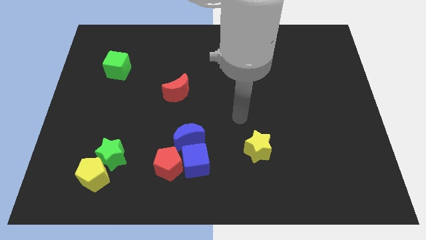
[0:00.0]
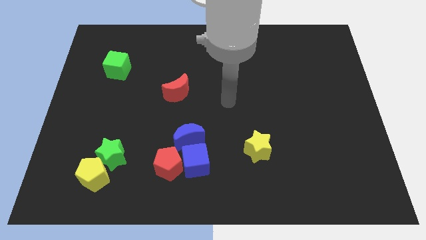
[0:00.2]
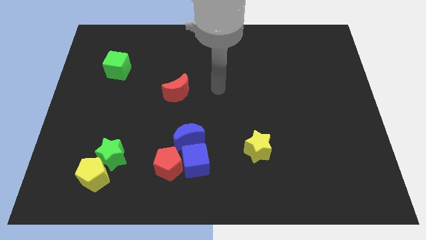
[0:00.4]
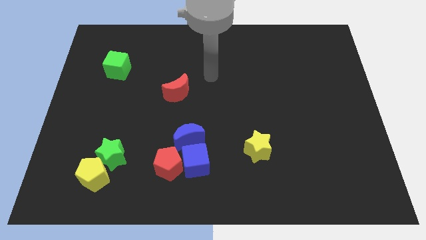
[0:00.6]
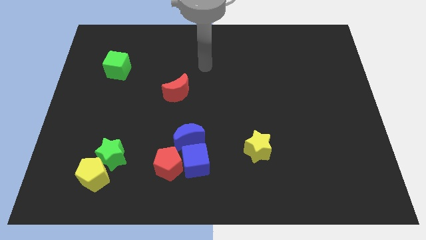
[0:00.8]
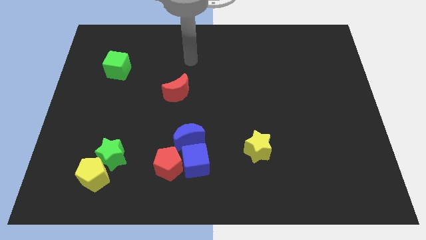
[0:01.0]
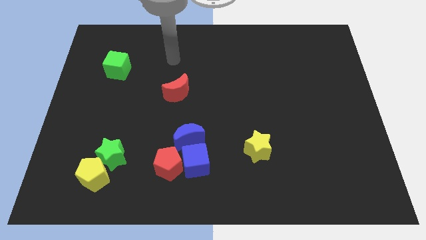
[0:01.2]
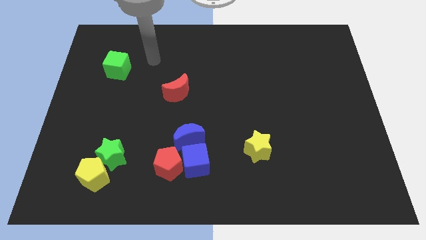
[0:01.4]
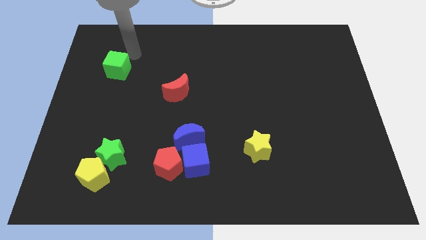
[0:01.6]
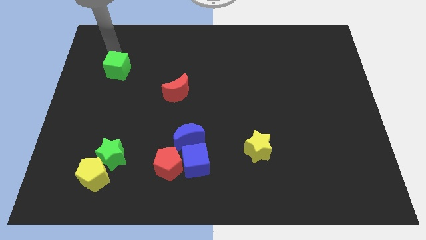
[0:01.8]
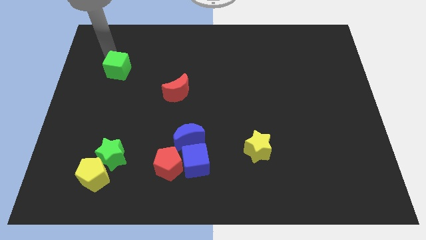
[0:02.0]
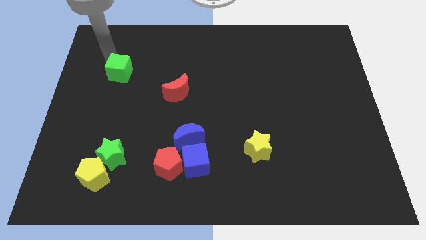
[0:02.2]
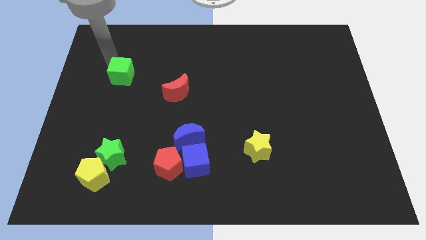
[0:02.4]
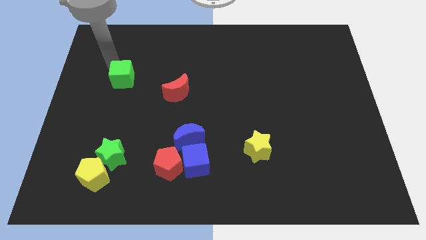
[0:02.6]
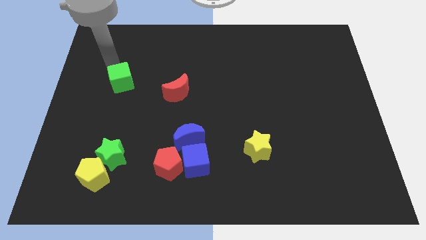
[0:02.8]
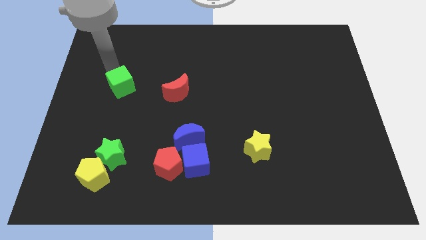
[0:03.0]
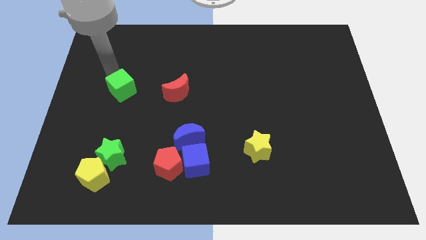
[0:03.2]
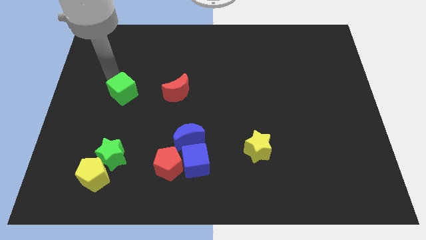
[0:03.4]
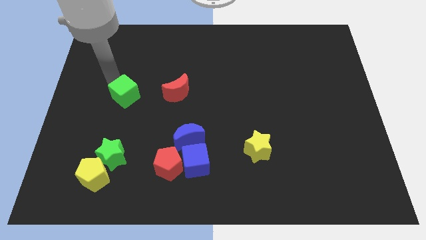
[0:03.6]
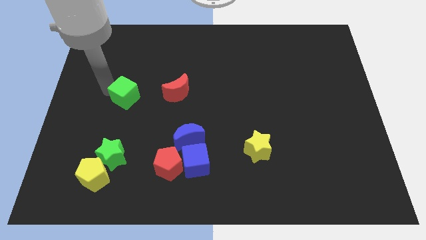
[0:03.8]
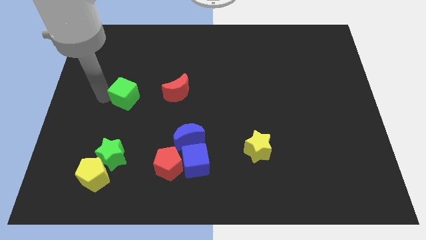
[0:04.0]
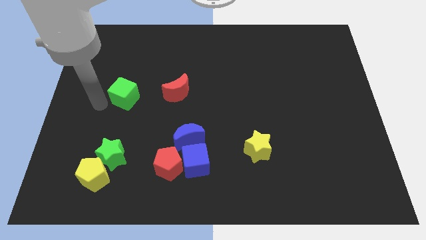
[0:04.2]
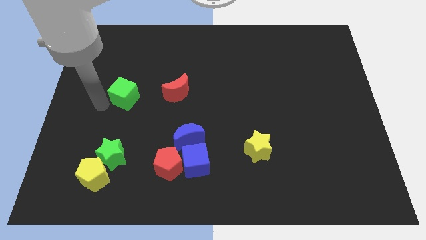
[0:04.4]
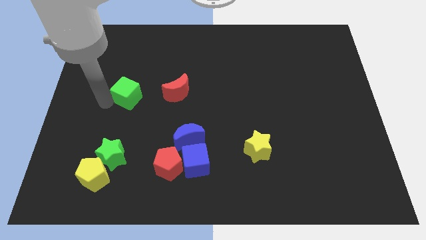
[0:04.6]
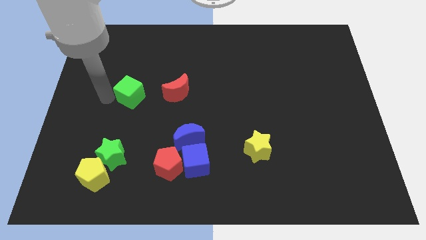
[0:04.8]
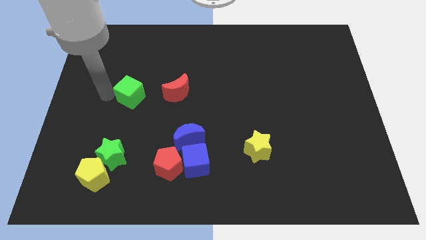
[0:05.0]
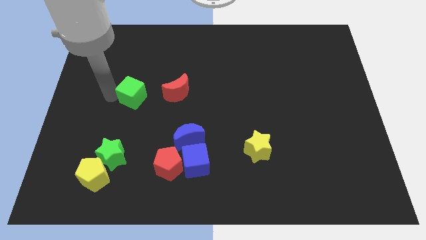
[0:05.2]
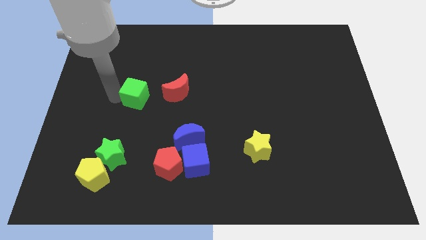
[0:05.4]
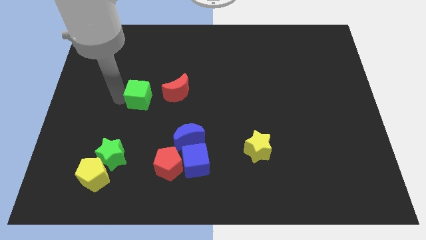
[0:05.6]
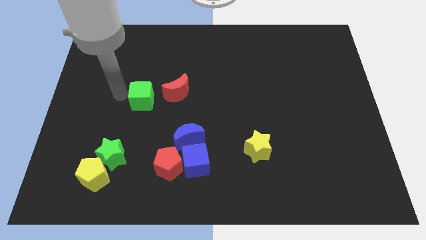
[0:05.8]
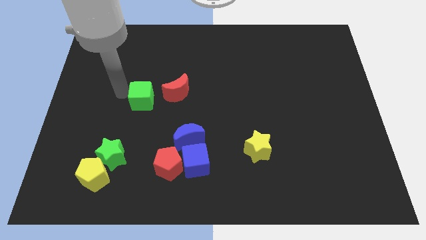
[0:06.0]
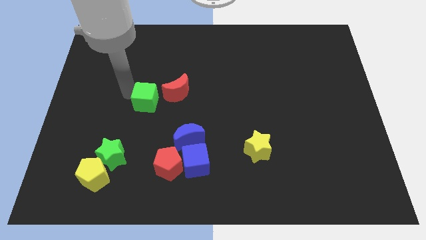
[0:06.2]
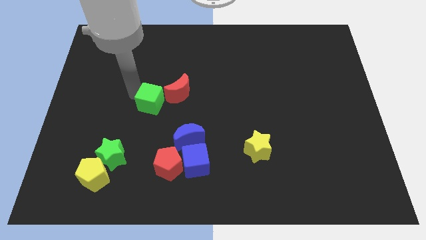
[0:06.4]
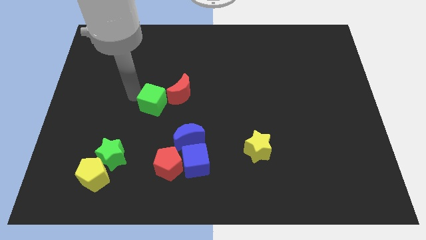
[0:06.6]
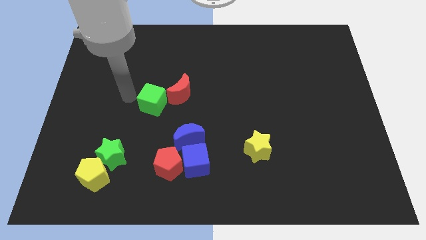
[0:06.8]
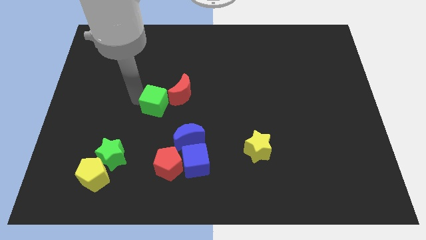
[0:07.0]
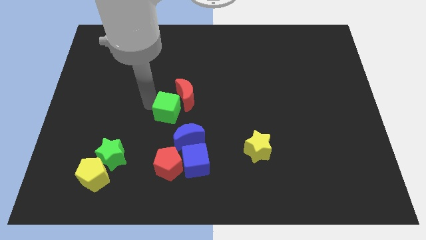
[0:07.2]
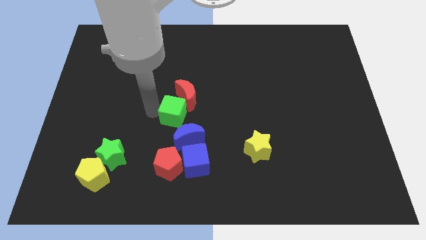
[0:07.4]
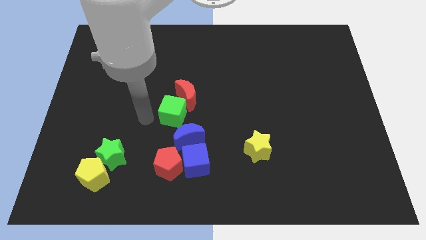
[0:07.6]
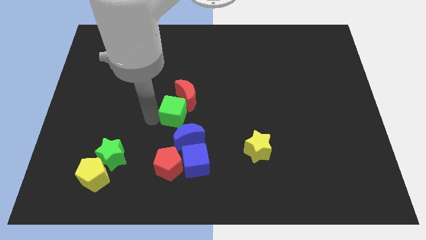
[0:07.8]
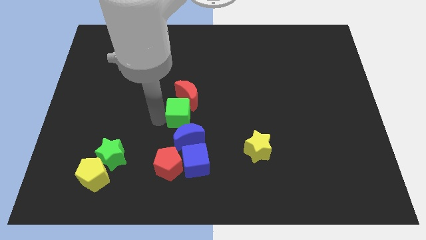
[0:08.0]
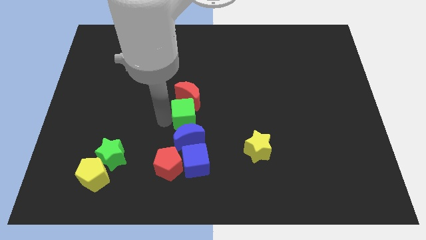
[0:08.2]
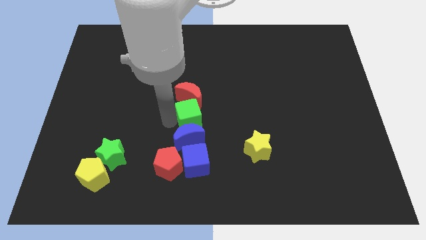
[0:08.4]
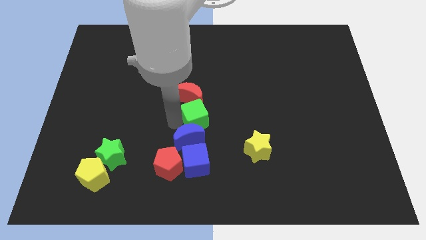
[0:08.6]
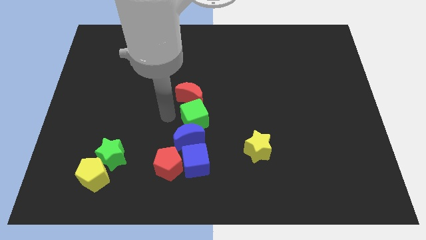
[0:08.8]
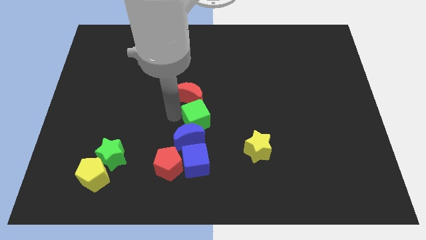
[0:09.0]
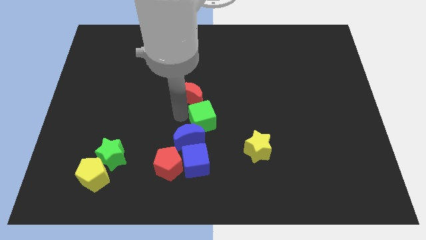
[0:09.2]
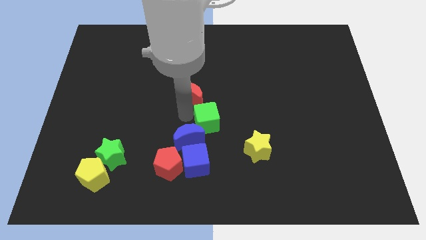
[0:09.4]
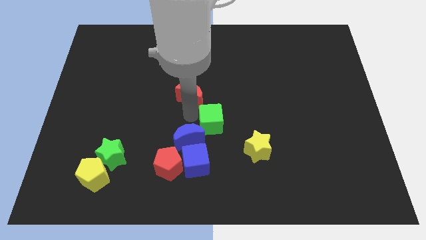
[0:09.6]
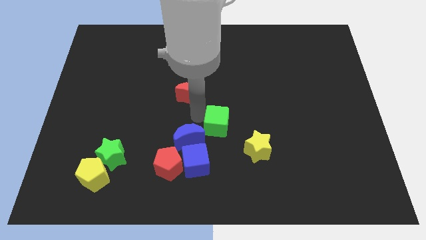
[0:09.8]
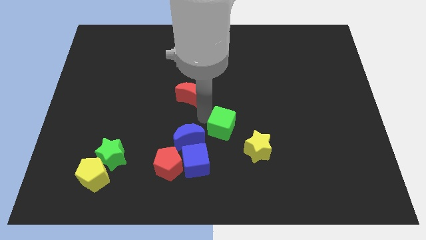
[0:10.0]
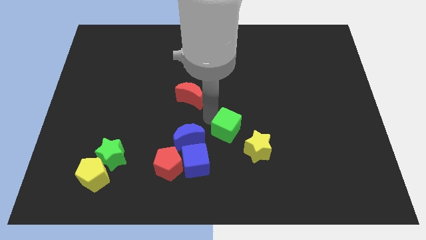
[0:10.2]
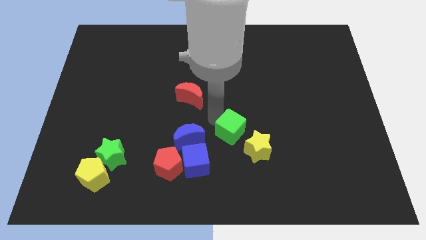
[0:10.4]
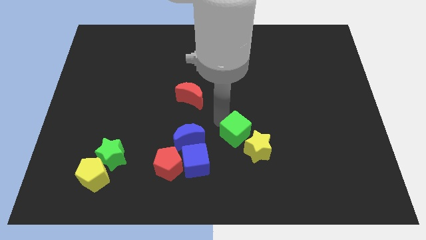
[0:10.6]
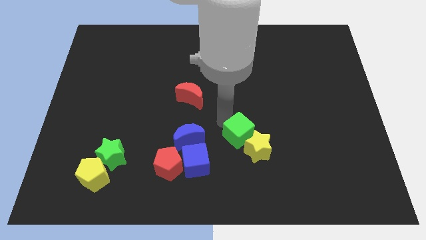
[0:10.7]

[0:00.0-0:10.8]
move the green cube to the yellow star

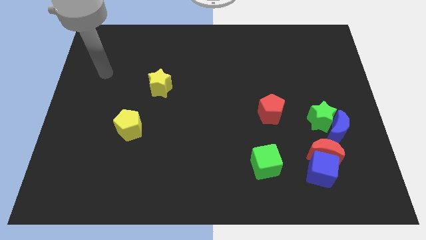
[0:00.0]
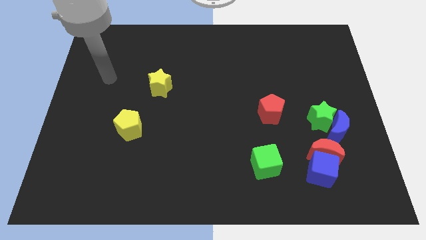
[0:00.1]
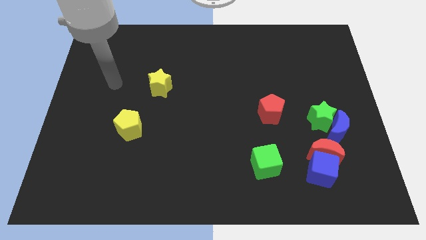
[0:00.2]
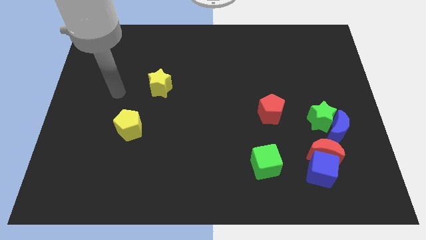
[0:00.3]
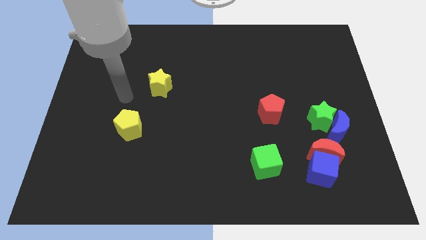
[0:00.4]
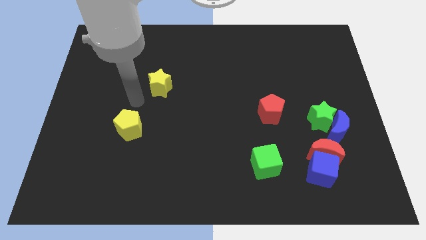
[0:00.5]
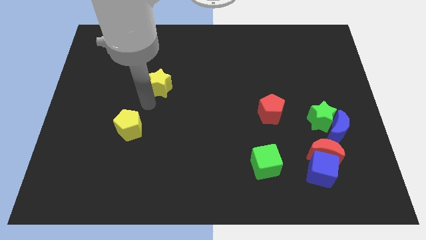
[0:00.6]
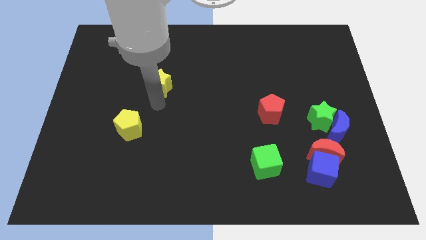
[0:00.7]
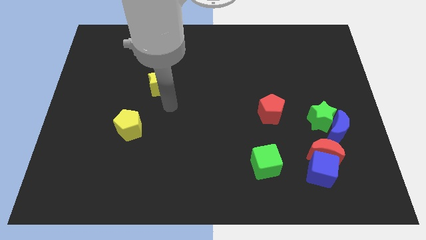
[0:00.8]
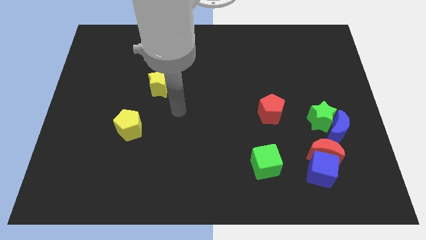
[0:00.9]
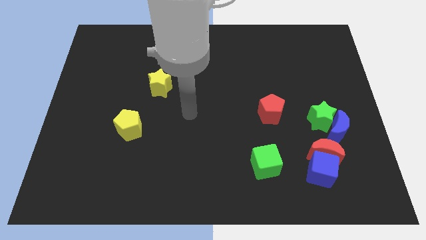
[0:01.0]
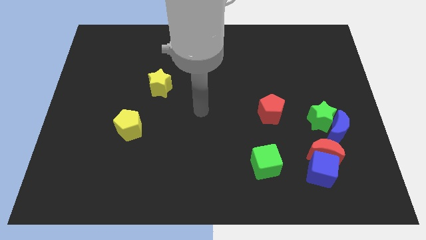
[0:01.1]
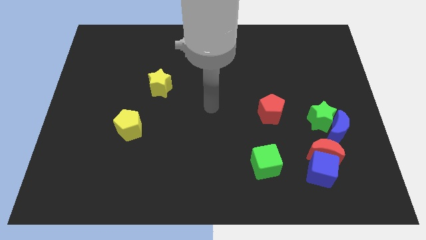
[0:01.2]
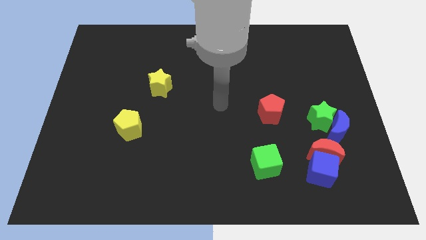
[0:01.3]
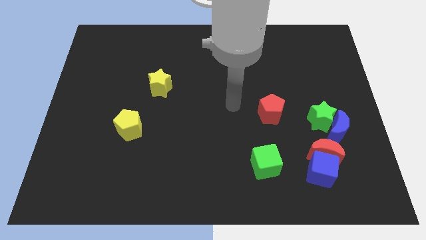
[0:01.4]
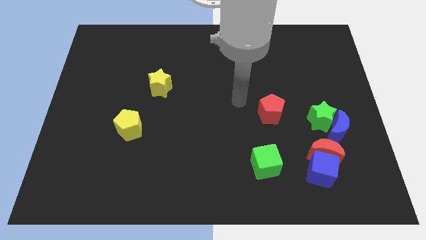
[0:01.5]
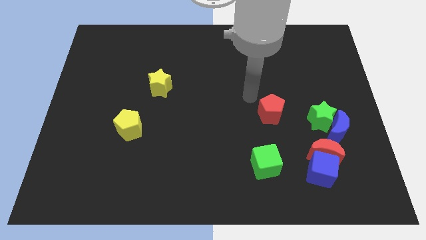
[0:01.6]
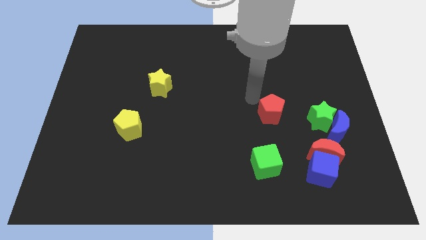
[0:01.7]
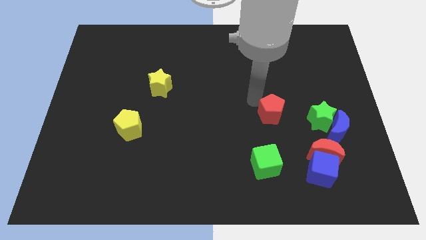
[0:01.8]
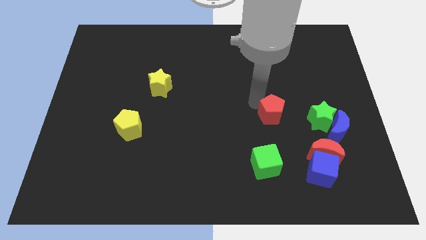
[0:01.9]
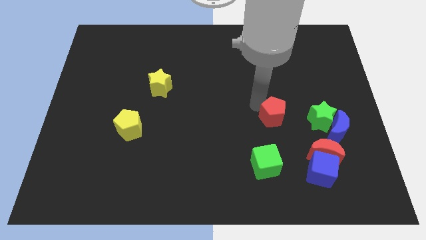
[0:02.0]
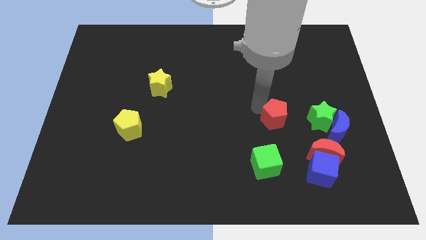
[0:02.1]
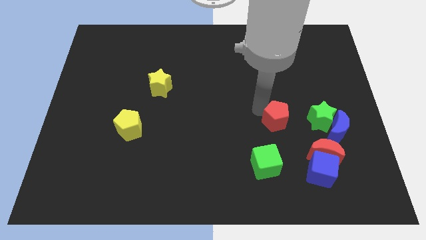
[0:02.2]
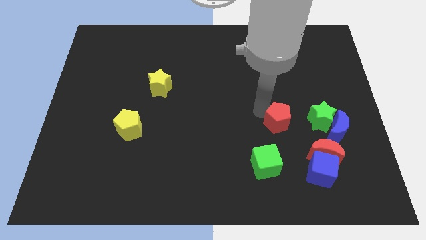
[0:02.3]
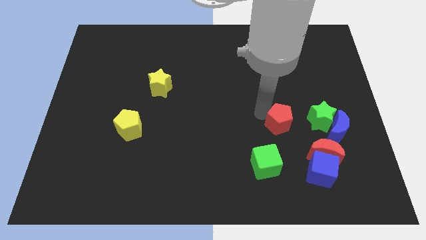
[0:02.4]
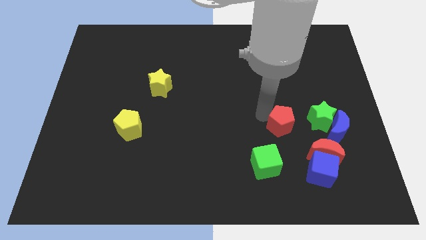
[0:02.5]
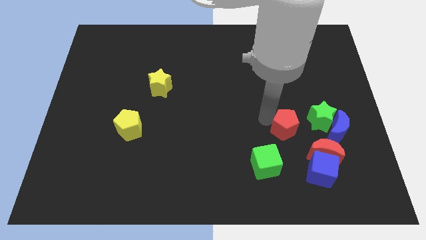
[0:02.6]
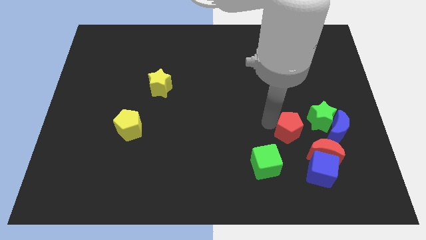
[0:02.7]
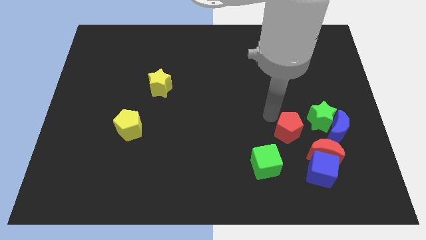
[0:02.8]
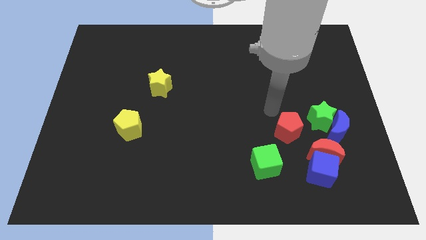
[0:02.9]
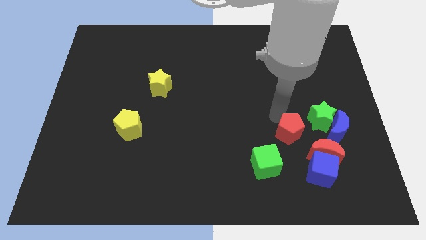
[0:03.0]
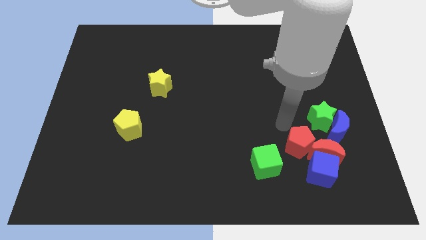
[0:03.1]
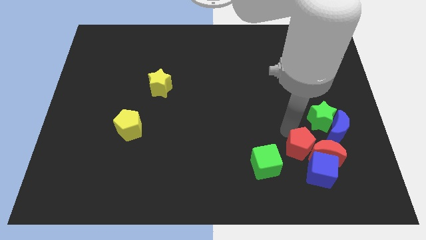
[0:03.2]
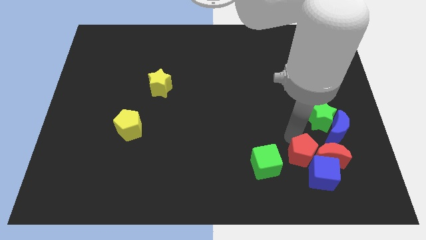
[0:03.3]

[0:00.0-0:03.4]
slide the red pentagon next to the blue cube
